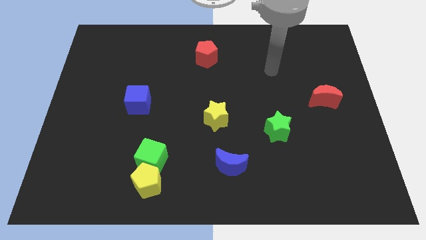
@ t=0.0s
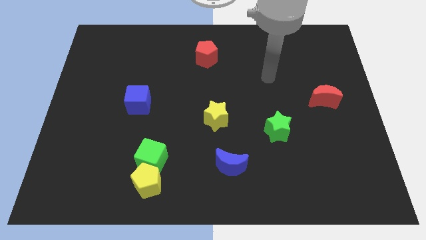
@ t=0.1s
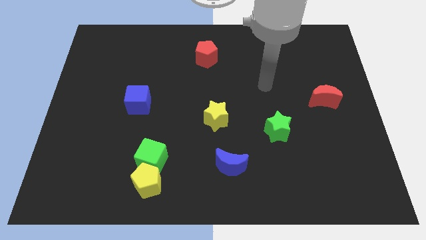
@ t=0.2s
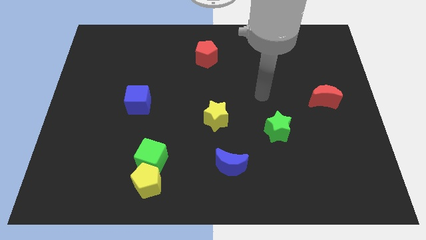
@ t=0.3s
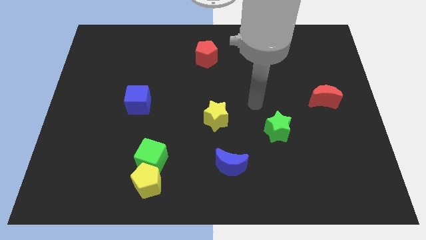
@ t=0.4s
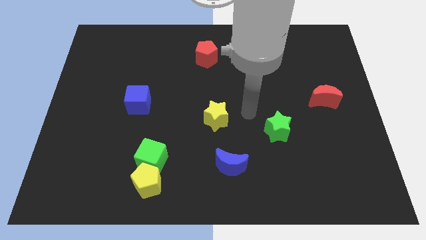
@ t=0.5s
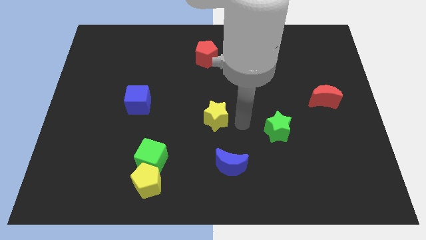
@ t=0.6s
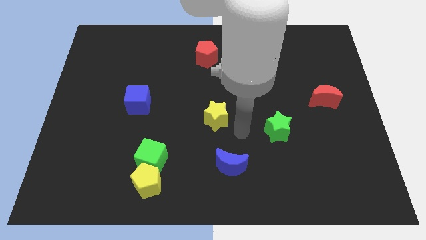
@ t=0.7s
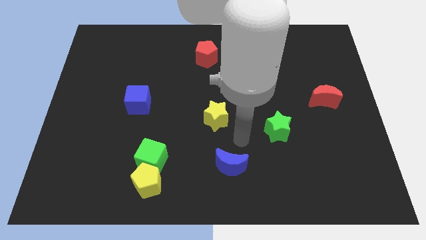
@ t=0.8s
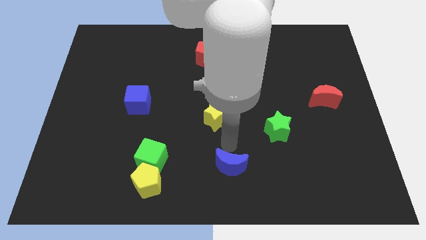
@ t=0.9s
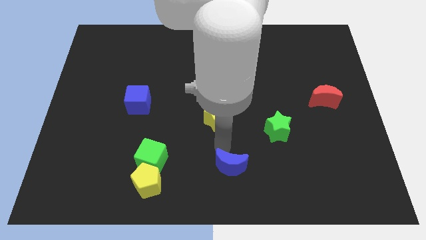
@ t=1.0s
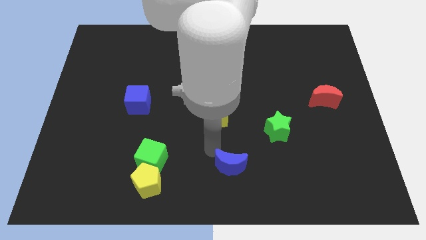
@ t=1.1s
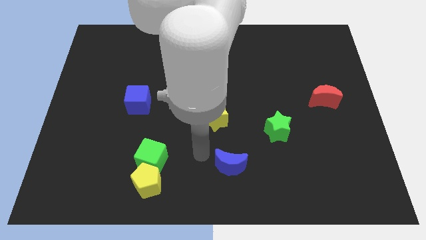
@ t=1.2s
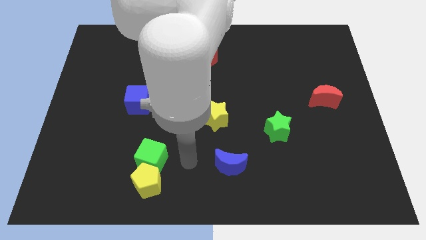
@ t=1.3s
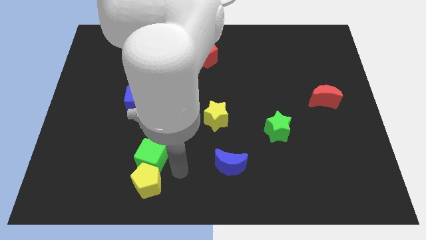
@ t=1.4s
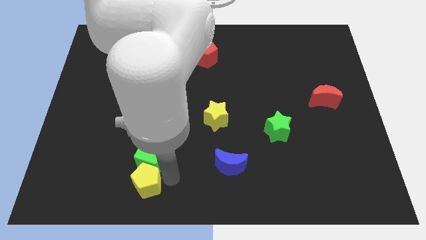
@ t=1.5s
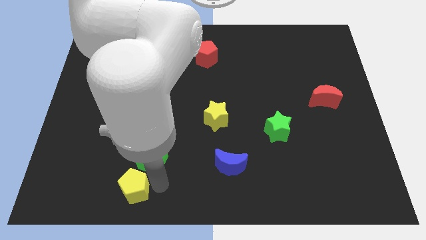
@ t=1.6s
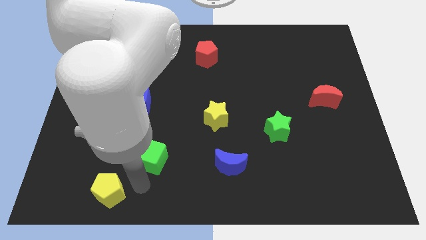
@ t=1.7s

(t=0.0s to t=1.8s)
move the green cube away from the yellow pentagon

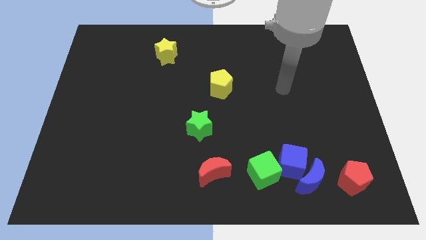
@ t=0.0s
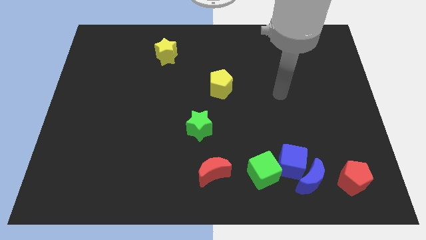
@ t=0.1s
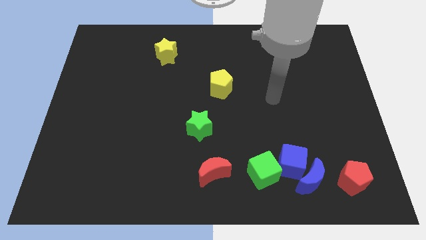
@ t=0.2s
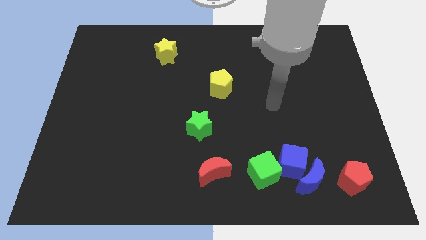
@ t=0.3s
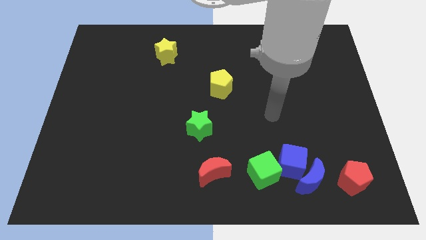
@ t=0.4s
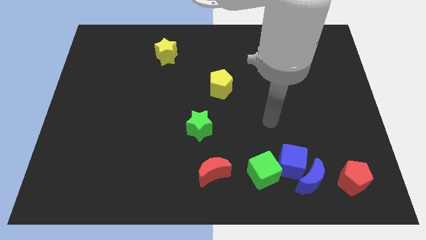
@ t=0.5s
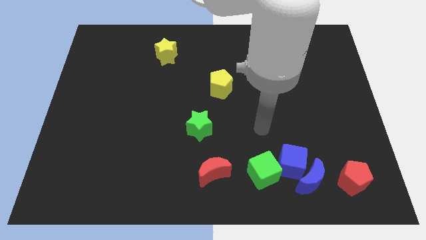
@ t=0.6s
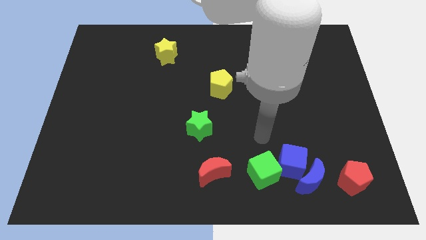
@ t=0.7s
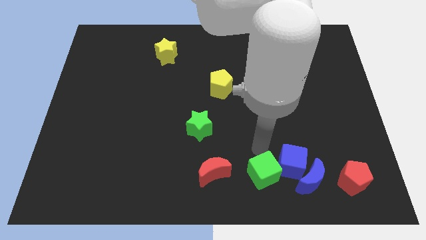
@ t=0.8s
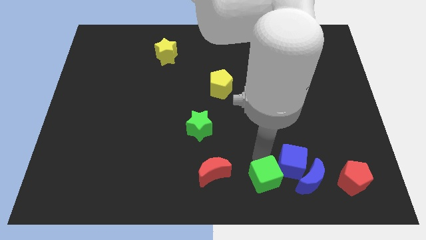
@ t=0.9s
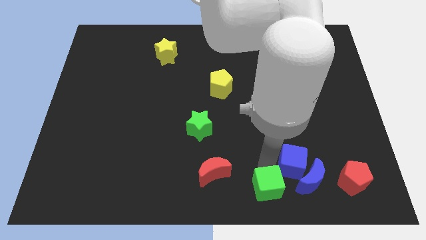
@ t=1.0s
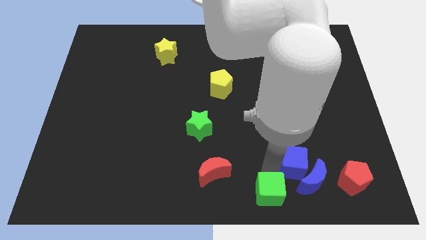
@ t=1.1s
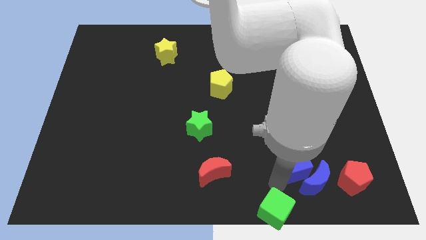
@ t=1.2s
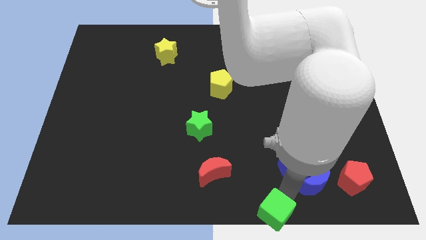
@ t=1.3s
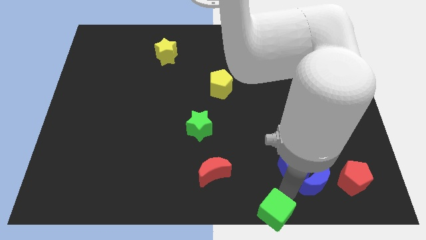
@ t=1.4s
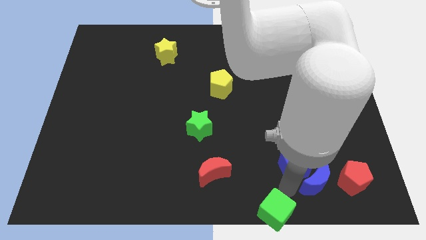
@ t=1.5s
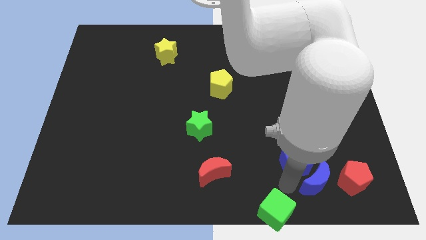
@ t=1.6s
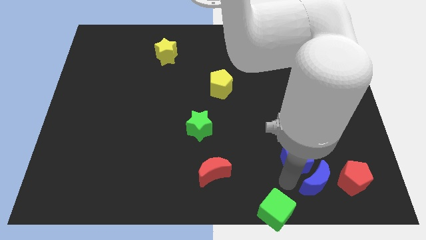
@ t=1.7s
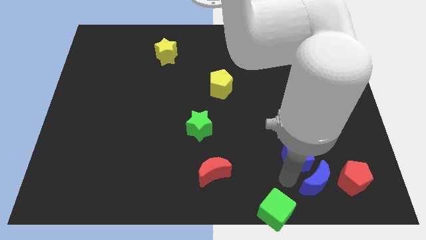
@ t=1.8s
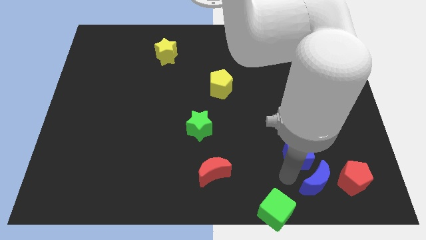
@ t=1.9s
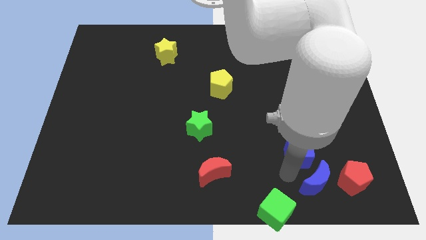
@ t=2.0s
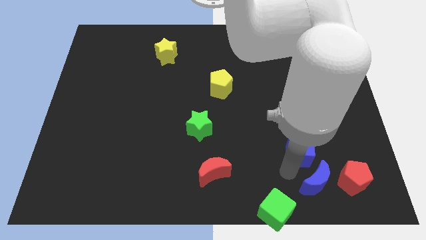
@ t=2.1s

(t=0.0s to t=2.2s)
pull the blue cube apart from the blue moon and green cube

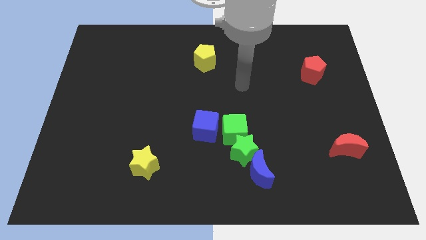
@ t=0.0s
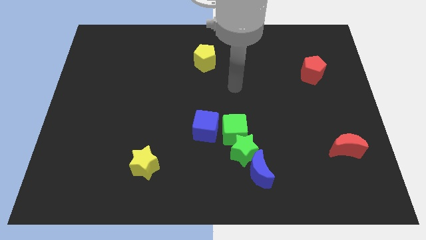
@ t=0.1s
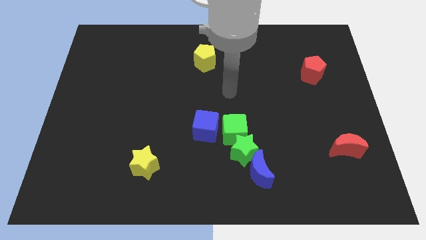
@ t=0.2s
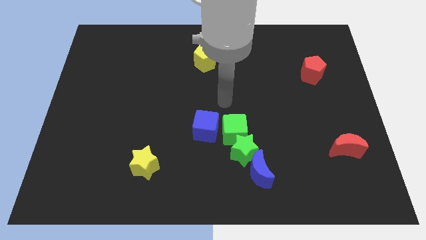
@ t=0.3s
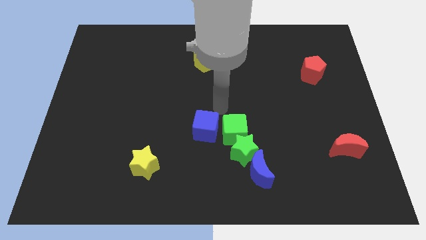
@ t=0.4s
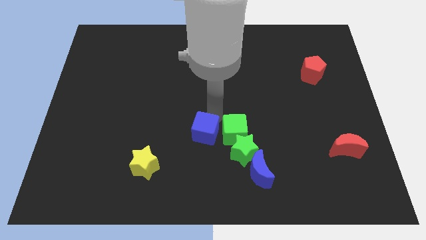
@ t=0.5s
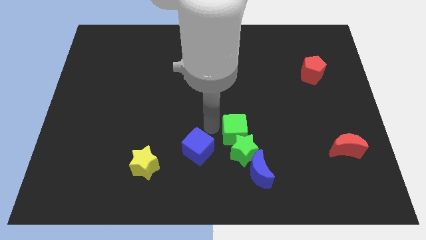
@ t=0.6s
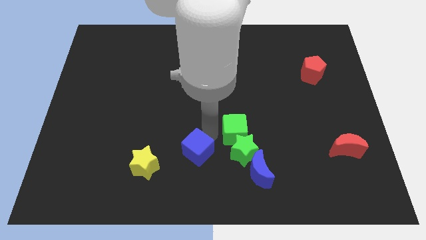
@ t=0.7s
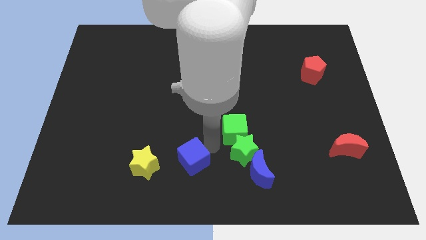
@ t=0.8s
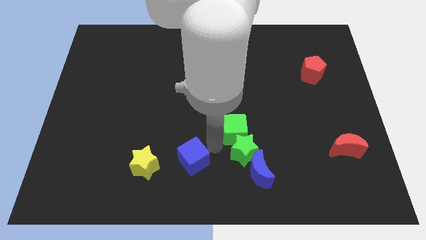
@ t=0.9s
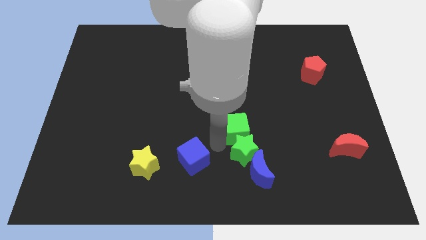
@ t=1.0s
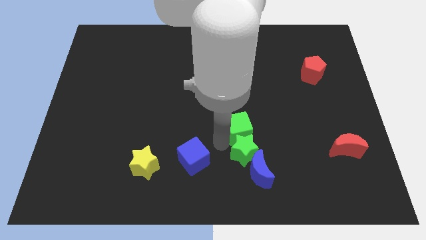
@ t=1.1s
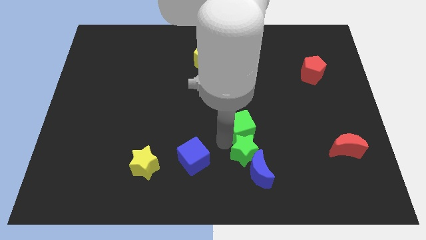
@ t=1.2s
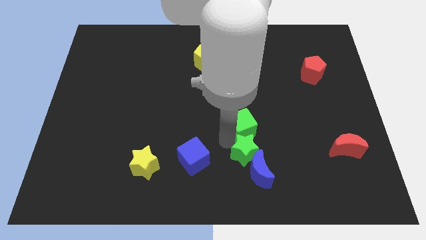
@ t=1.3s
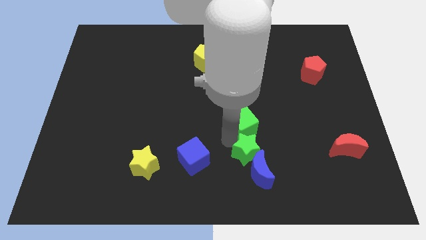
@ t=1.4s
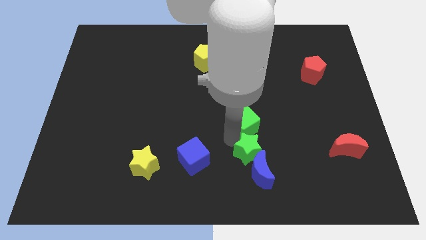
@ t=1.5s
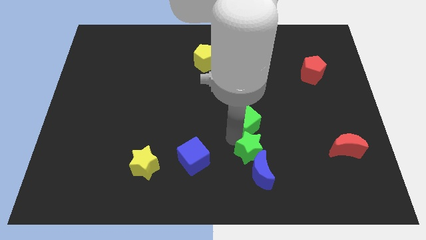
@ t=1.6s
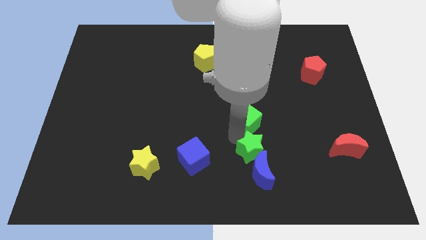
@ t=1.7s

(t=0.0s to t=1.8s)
move the green cube away from the green star and blue cube

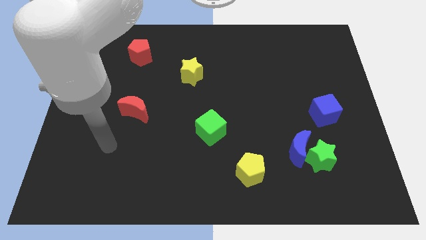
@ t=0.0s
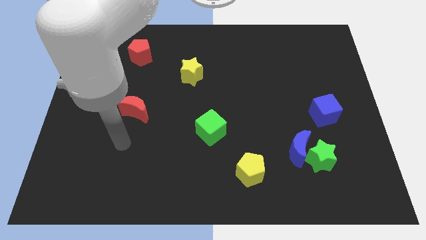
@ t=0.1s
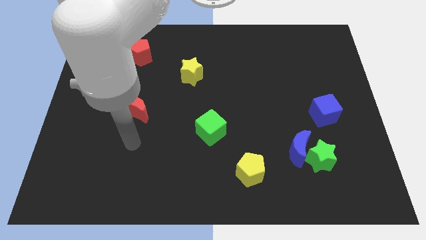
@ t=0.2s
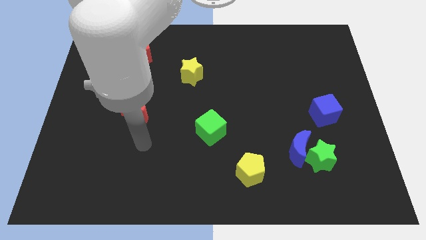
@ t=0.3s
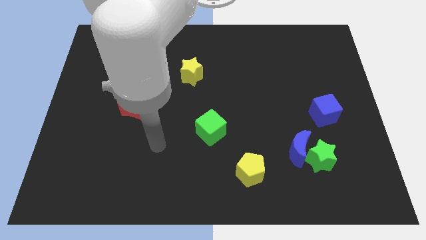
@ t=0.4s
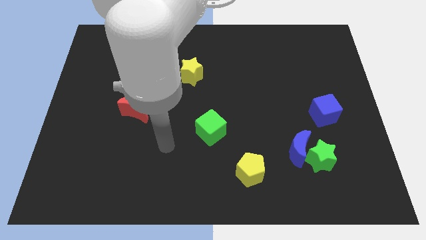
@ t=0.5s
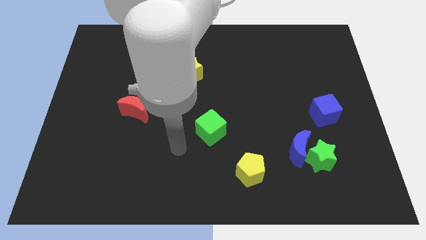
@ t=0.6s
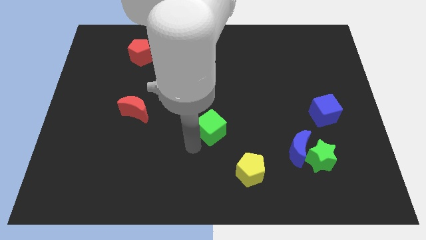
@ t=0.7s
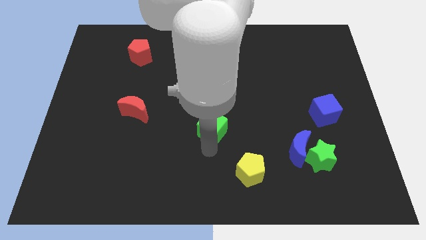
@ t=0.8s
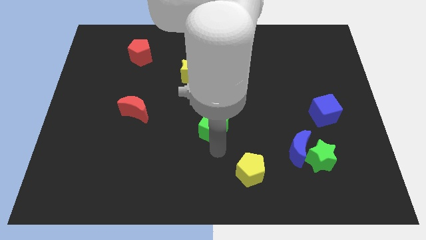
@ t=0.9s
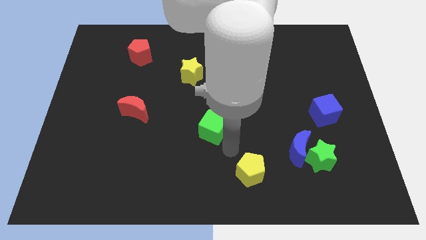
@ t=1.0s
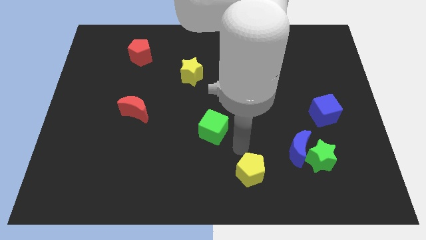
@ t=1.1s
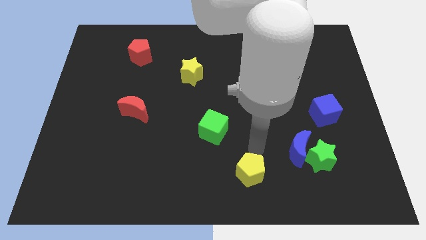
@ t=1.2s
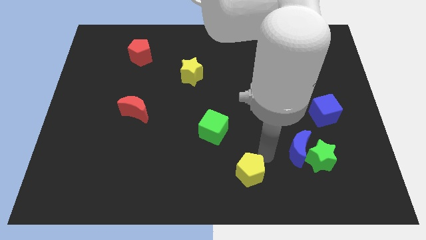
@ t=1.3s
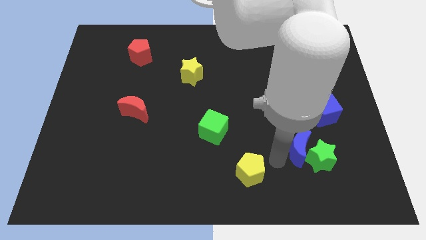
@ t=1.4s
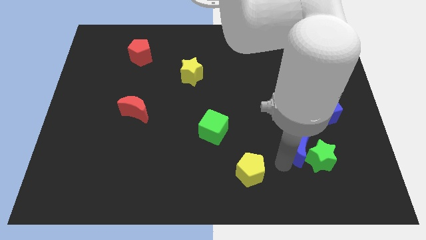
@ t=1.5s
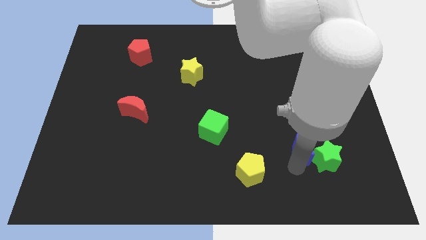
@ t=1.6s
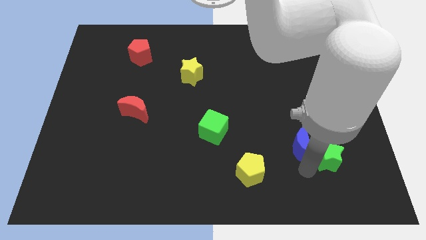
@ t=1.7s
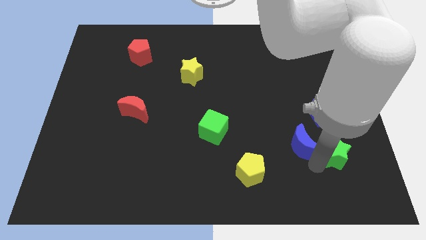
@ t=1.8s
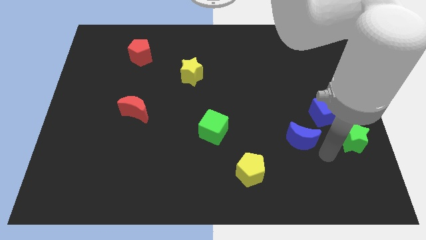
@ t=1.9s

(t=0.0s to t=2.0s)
separate the blue moon from the green star

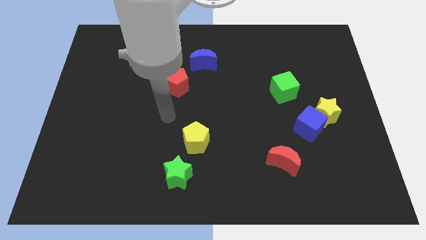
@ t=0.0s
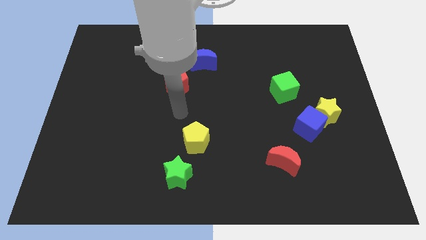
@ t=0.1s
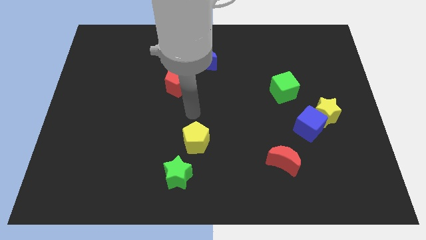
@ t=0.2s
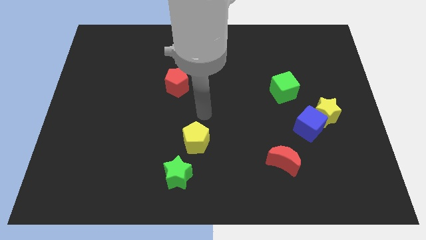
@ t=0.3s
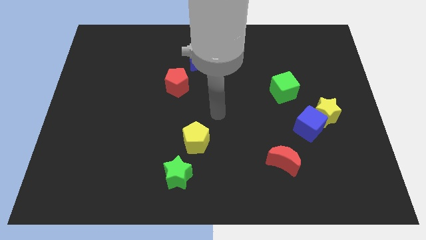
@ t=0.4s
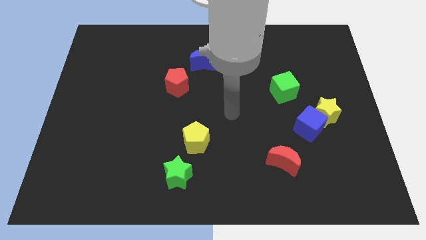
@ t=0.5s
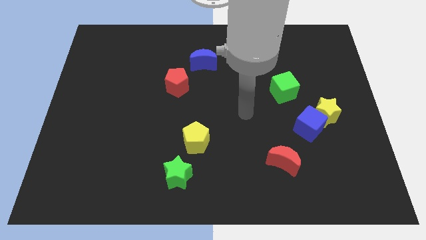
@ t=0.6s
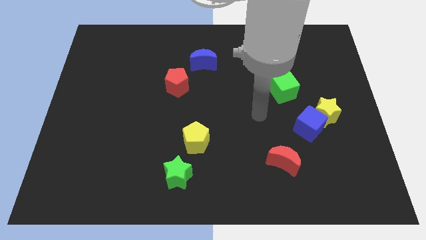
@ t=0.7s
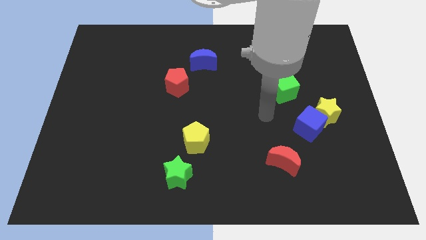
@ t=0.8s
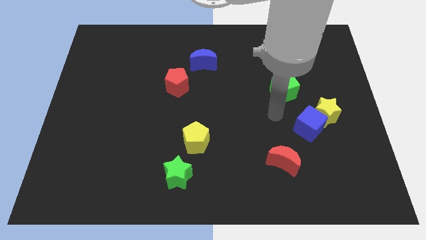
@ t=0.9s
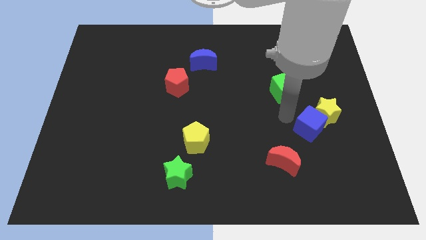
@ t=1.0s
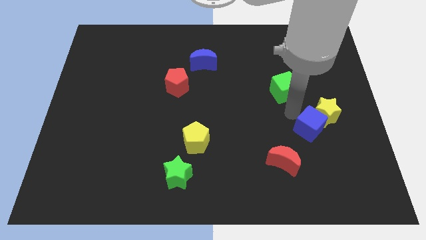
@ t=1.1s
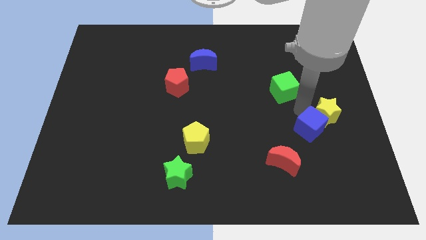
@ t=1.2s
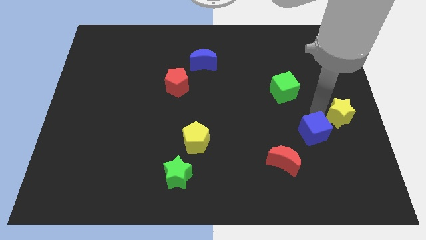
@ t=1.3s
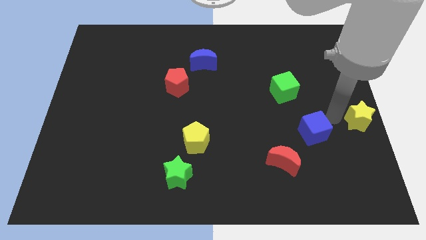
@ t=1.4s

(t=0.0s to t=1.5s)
move the blue cube away from the yellow star
